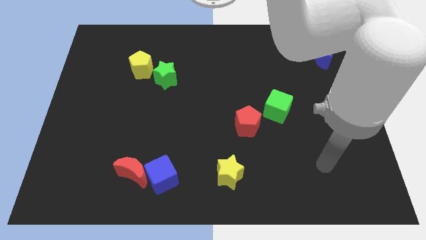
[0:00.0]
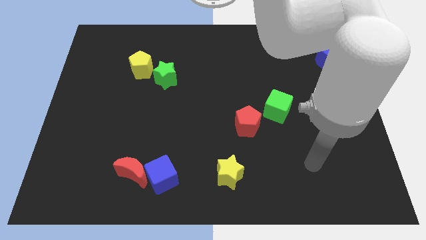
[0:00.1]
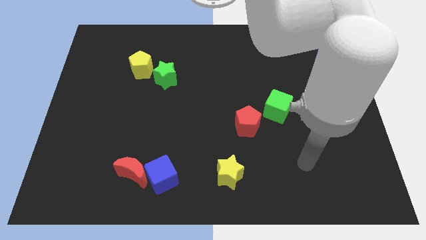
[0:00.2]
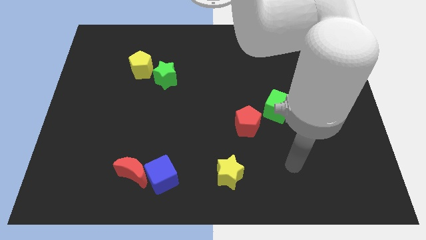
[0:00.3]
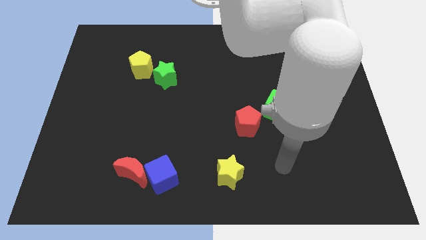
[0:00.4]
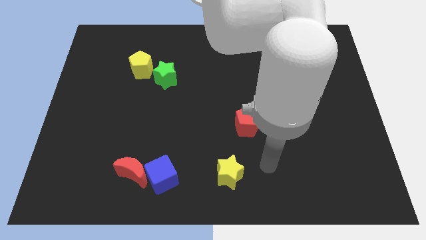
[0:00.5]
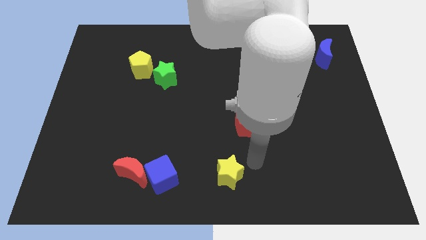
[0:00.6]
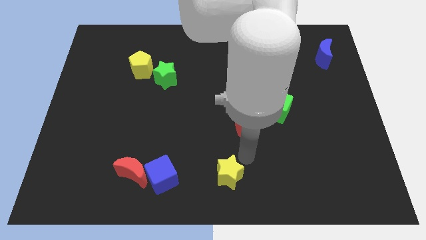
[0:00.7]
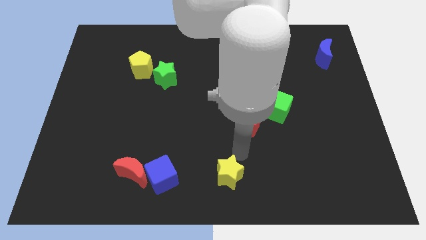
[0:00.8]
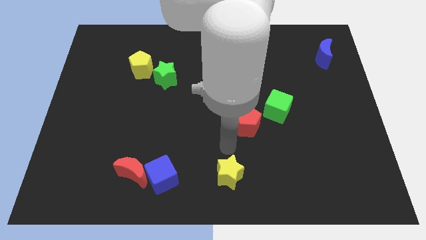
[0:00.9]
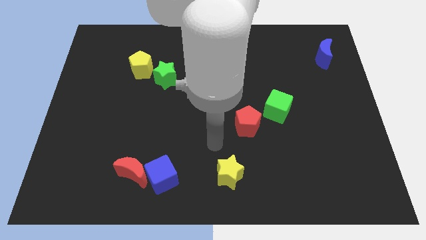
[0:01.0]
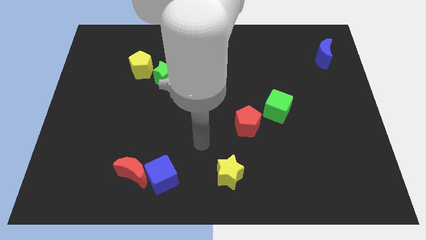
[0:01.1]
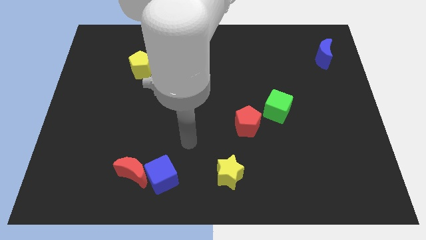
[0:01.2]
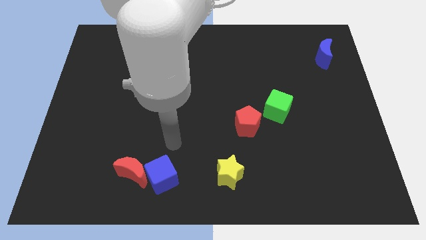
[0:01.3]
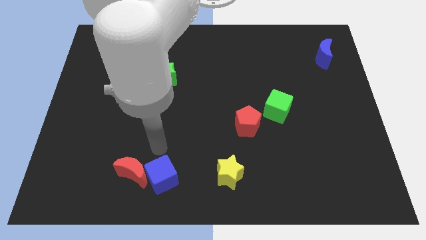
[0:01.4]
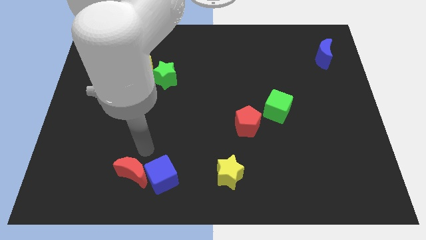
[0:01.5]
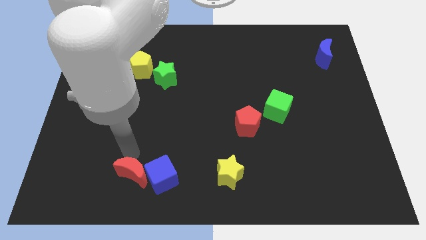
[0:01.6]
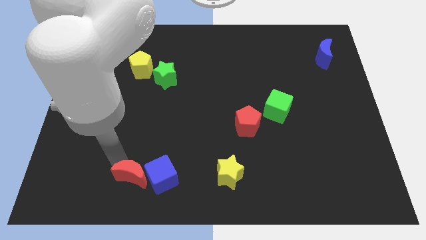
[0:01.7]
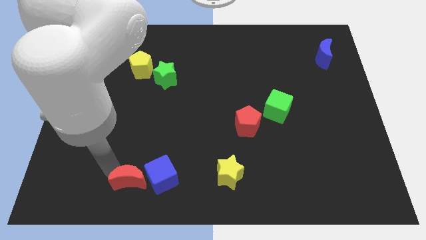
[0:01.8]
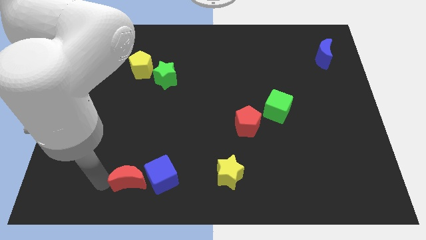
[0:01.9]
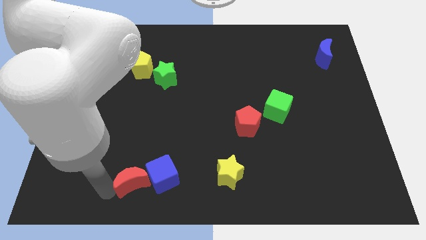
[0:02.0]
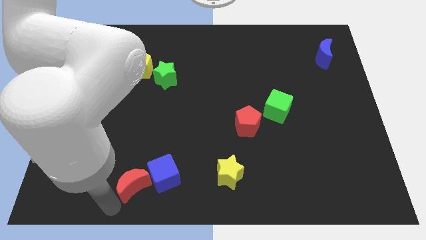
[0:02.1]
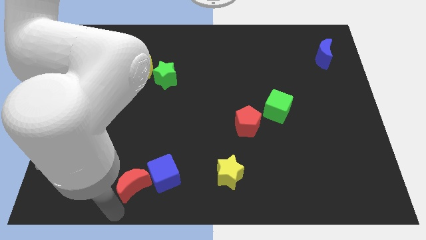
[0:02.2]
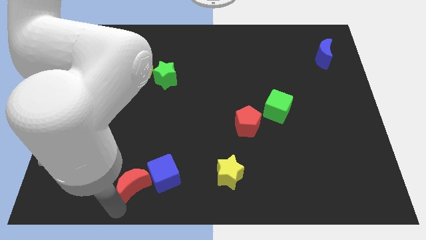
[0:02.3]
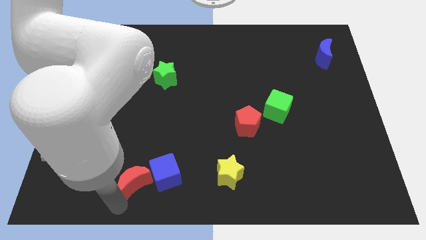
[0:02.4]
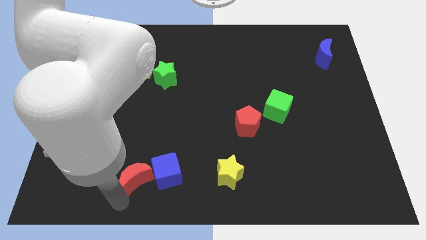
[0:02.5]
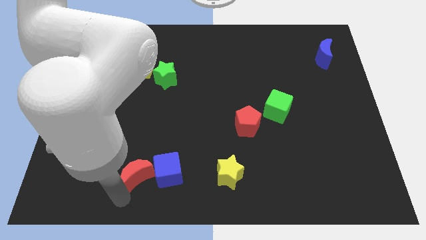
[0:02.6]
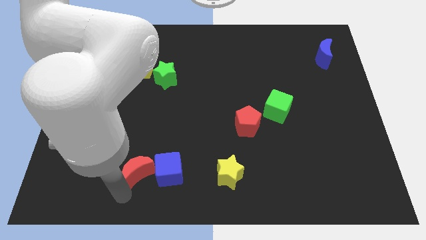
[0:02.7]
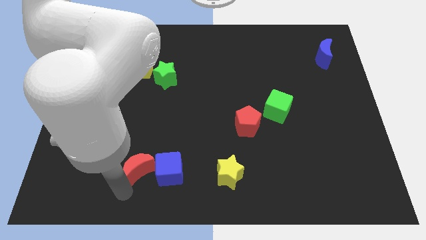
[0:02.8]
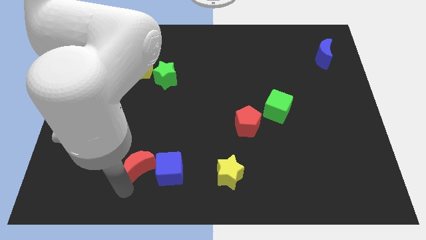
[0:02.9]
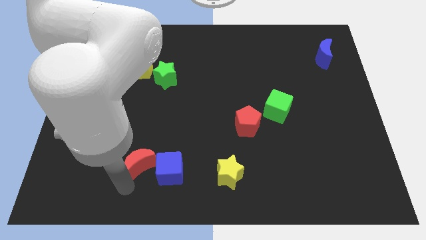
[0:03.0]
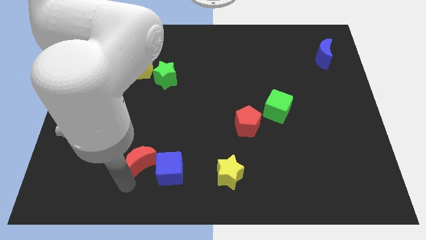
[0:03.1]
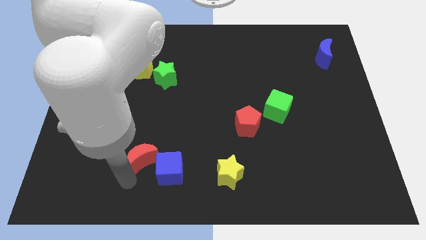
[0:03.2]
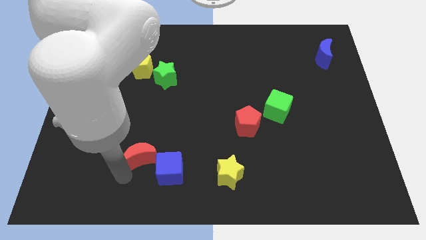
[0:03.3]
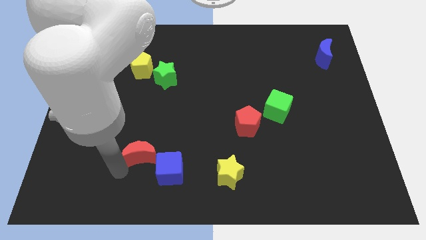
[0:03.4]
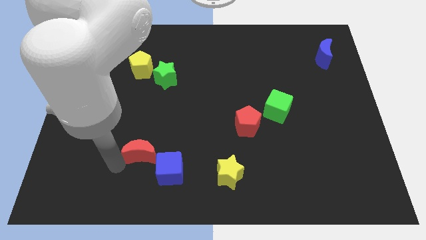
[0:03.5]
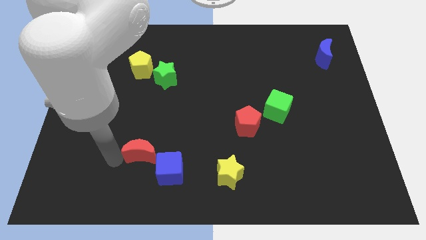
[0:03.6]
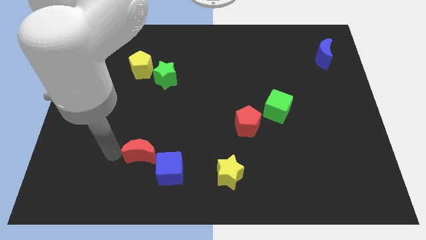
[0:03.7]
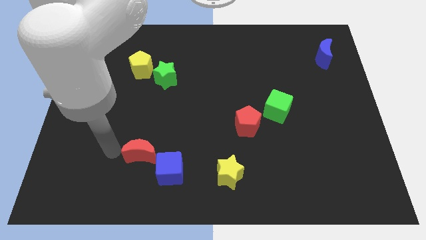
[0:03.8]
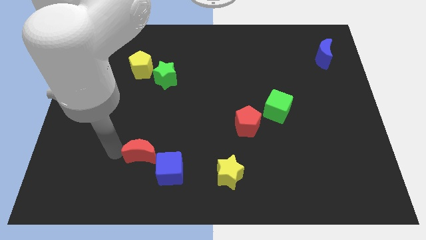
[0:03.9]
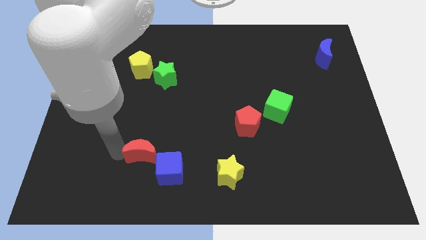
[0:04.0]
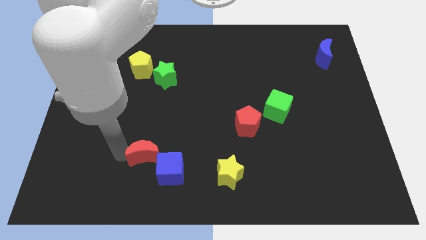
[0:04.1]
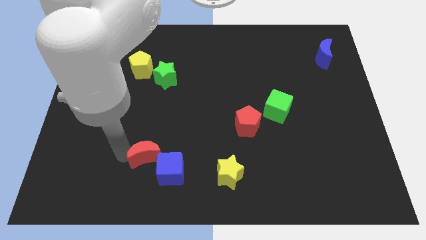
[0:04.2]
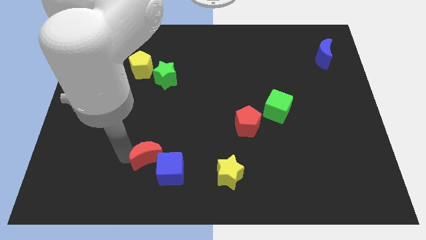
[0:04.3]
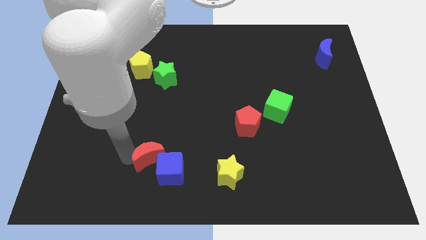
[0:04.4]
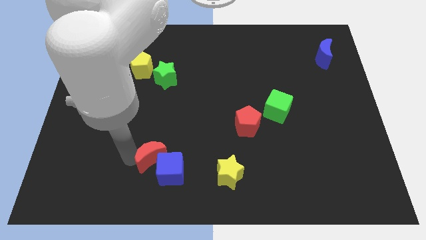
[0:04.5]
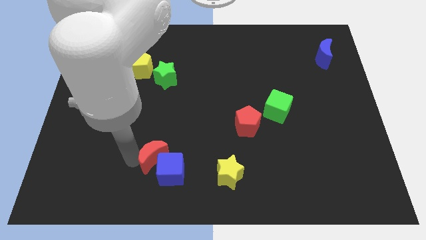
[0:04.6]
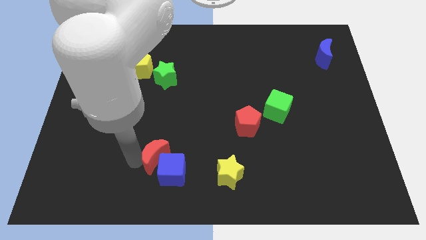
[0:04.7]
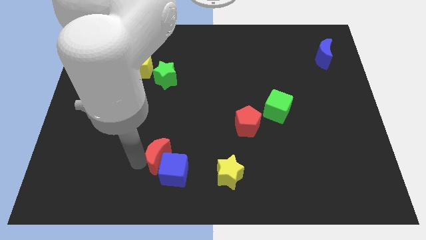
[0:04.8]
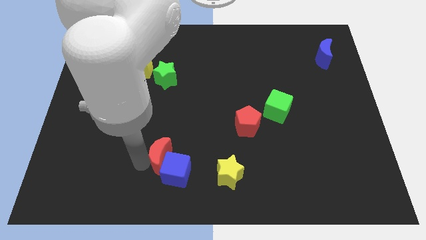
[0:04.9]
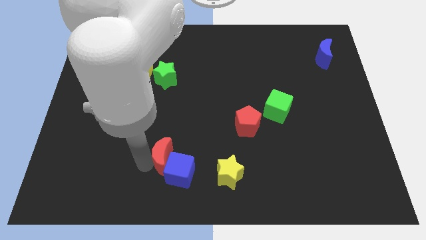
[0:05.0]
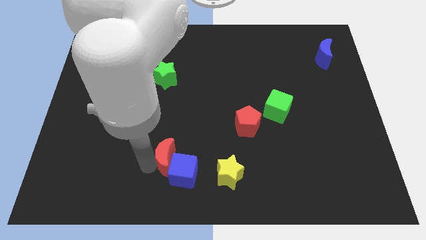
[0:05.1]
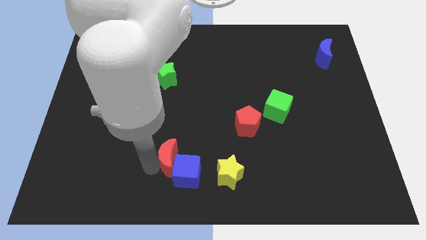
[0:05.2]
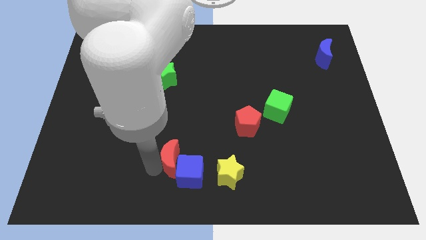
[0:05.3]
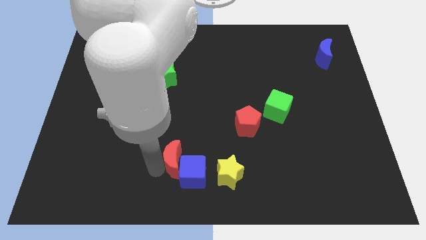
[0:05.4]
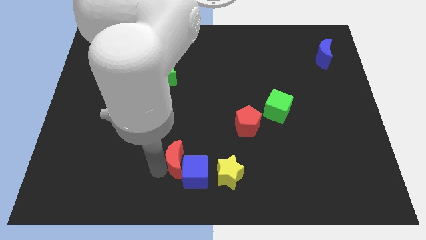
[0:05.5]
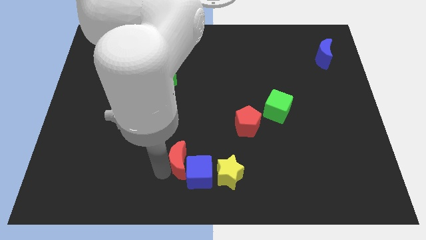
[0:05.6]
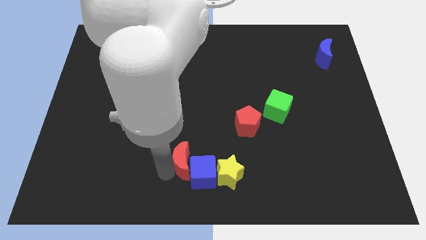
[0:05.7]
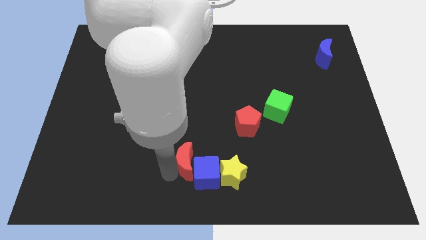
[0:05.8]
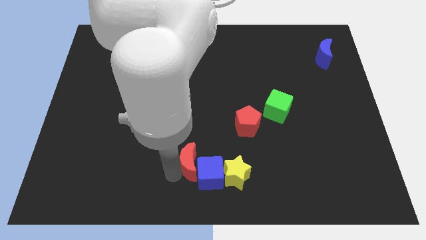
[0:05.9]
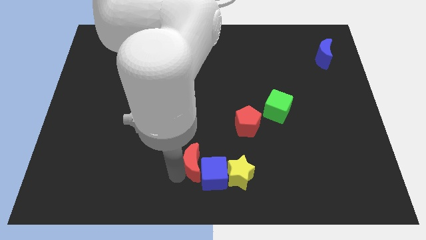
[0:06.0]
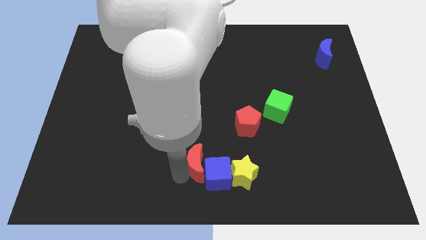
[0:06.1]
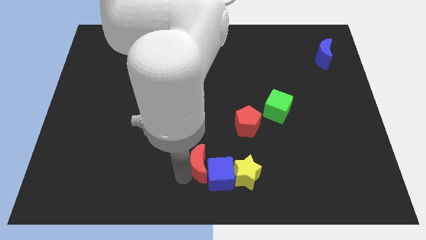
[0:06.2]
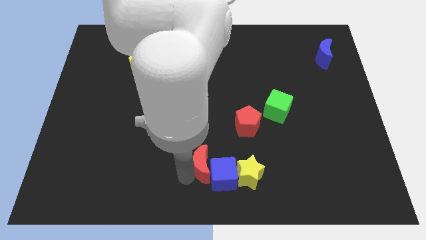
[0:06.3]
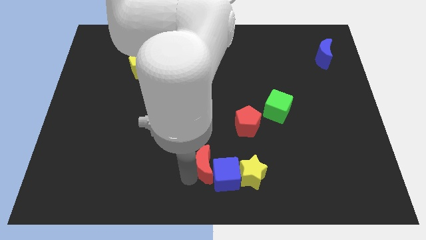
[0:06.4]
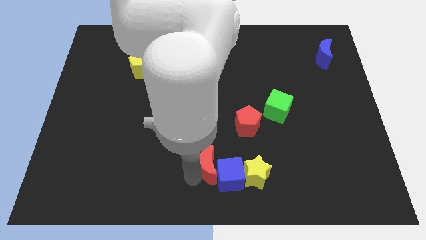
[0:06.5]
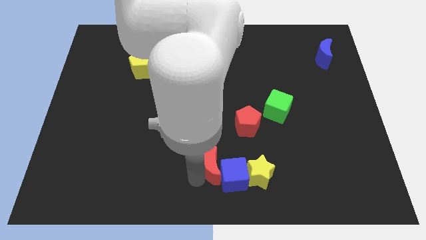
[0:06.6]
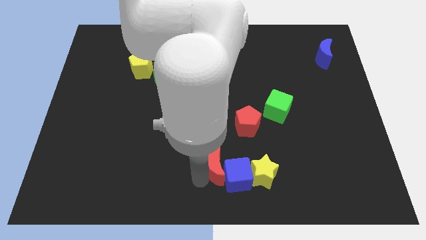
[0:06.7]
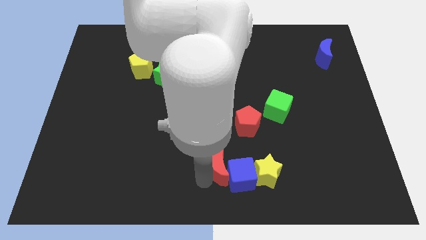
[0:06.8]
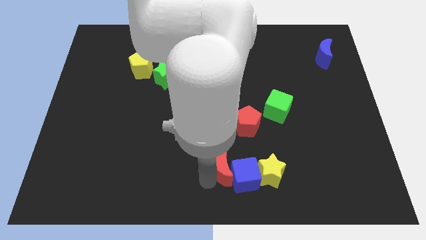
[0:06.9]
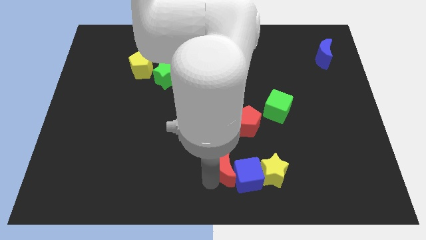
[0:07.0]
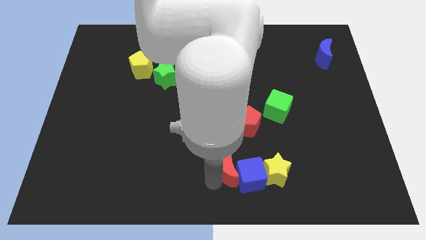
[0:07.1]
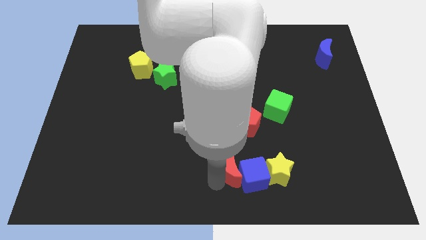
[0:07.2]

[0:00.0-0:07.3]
push the red moon right

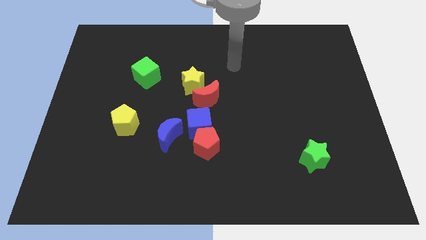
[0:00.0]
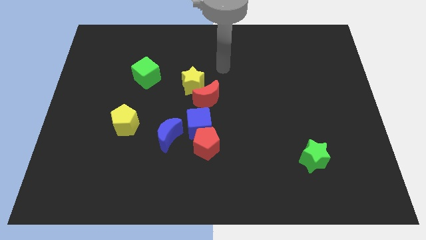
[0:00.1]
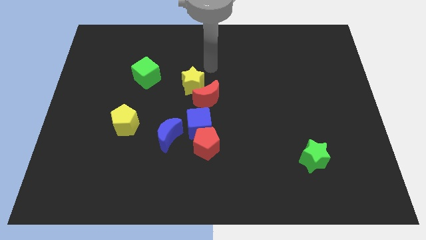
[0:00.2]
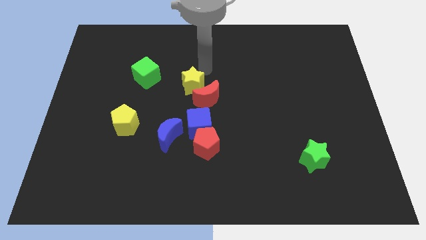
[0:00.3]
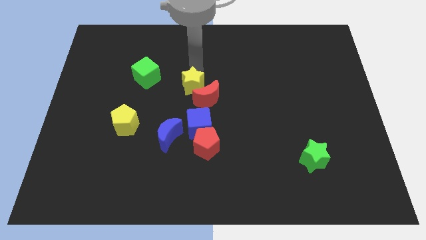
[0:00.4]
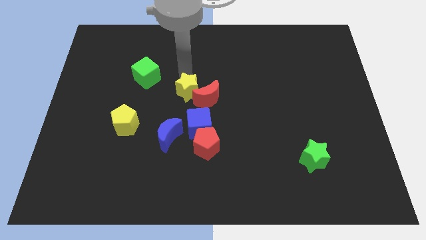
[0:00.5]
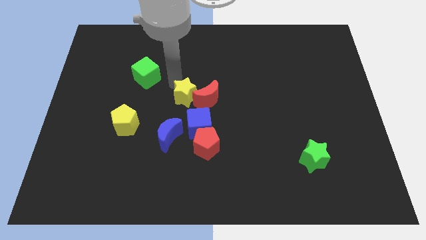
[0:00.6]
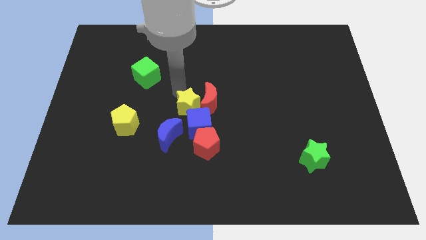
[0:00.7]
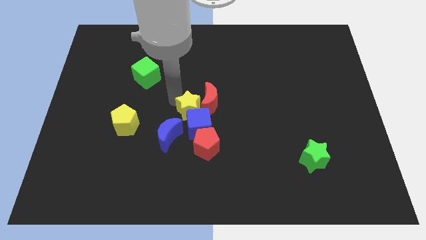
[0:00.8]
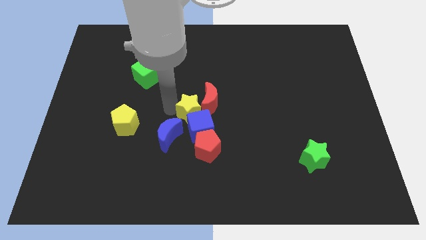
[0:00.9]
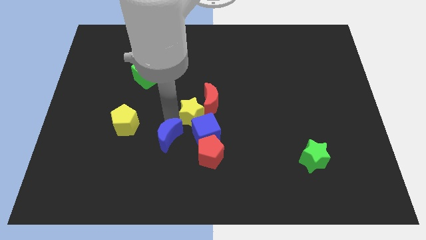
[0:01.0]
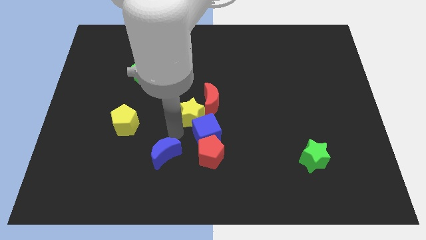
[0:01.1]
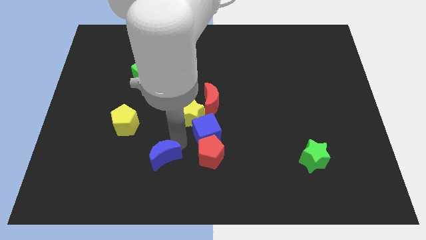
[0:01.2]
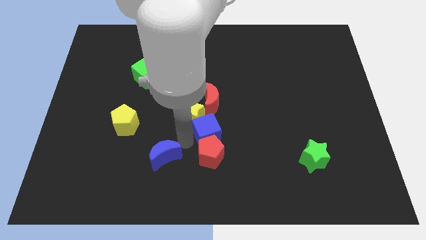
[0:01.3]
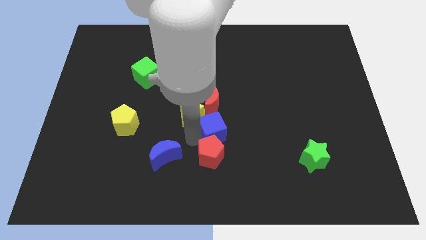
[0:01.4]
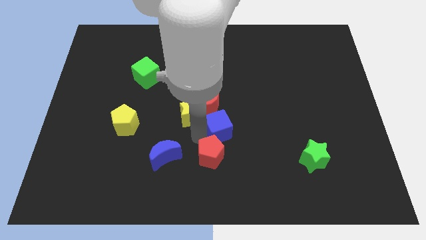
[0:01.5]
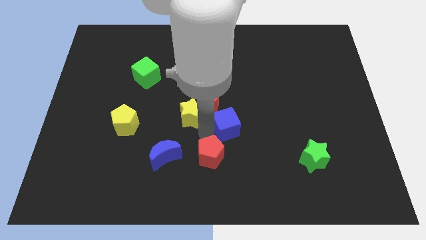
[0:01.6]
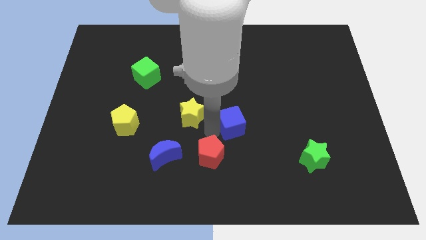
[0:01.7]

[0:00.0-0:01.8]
move the blue cube slightly right
